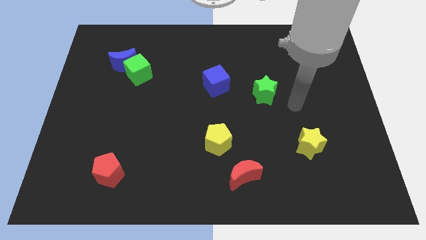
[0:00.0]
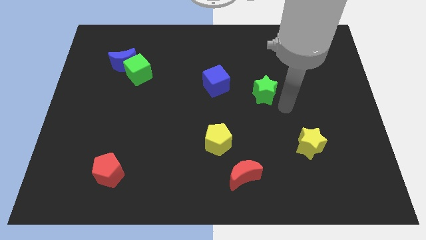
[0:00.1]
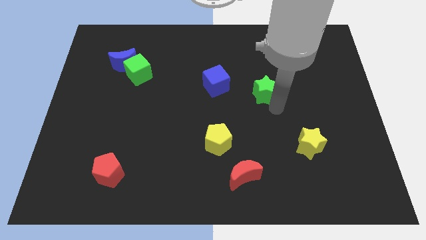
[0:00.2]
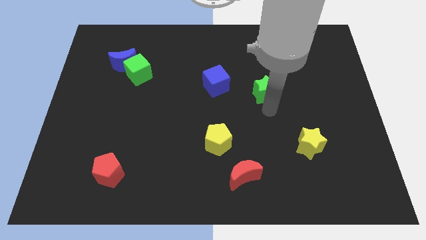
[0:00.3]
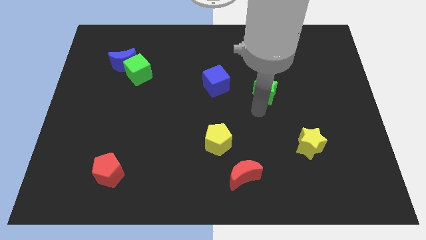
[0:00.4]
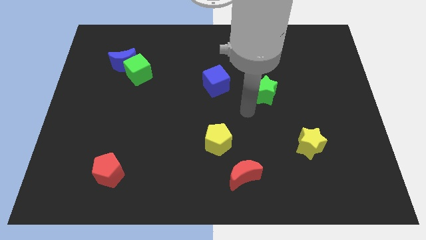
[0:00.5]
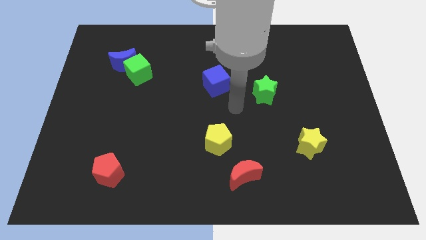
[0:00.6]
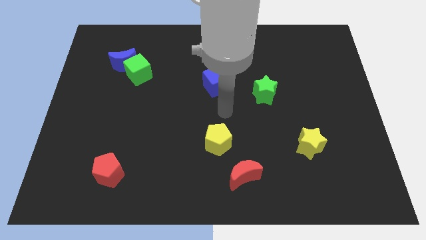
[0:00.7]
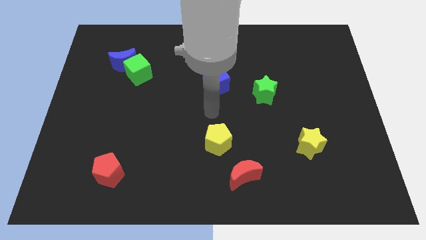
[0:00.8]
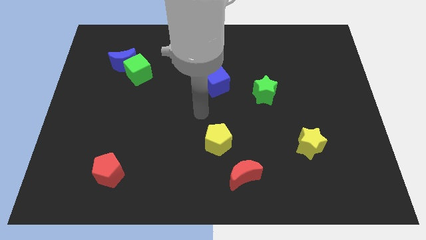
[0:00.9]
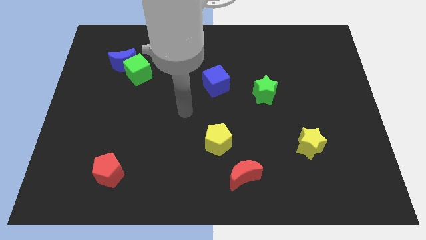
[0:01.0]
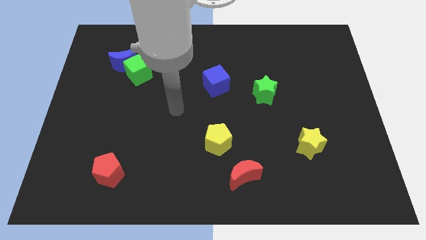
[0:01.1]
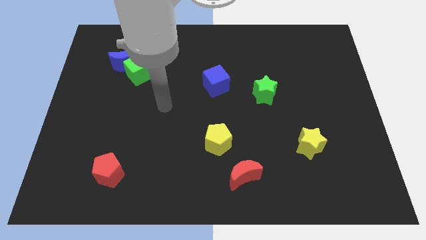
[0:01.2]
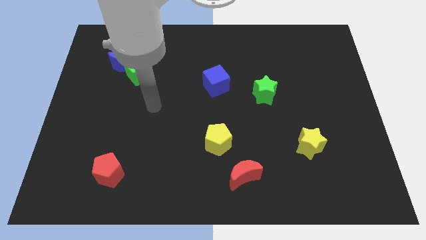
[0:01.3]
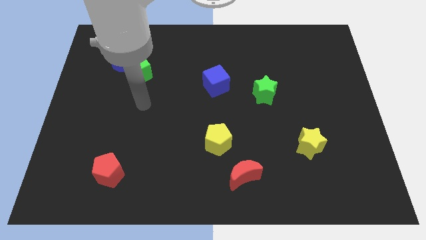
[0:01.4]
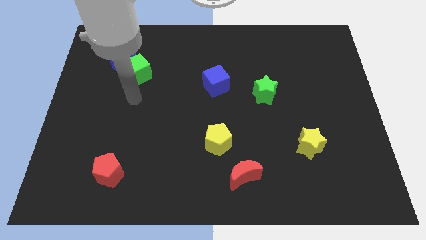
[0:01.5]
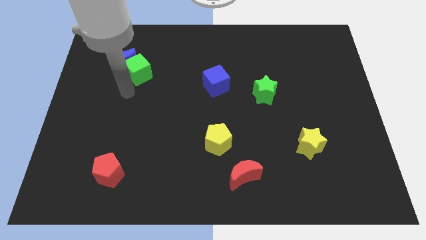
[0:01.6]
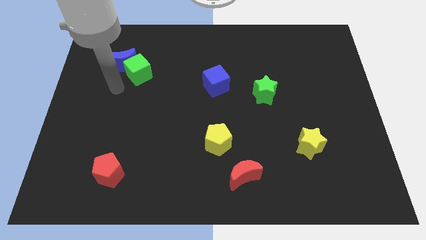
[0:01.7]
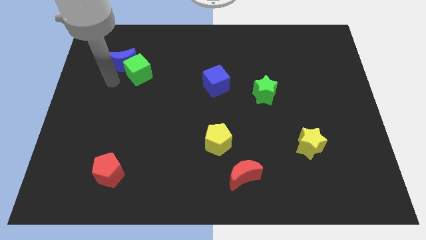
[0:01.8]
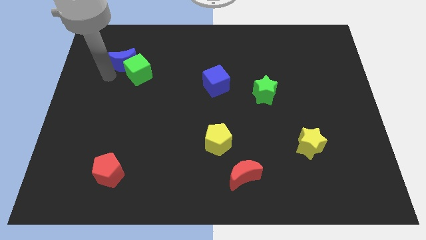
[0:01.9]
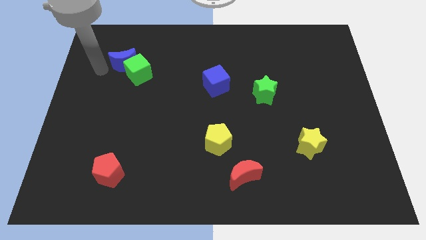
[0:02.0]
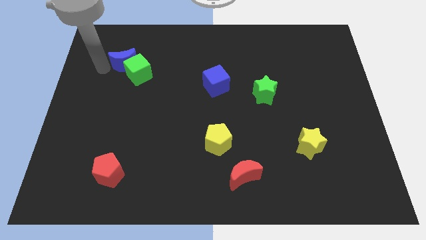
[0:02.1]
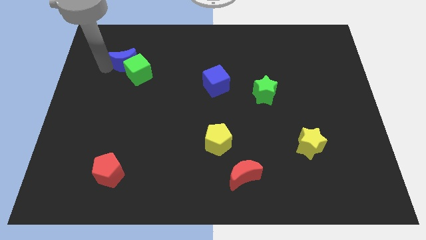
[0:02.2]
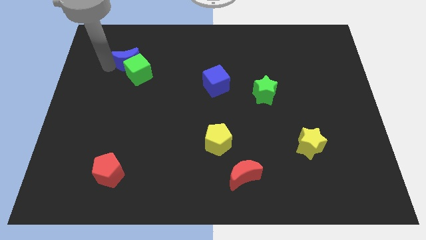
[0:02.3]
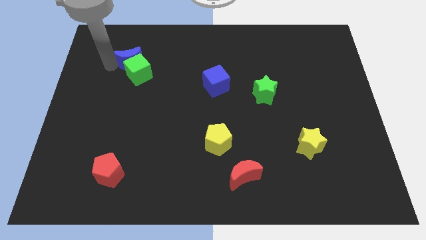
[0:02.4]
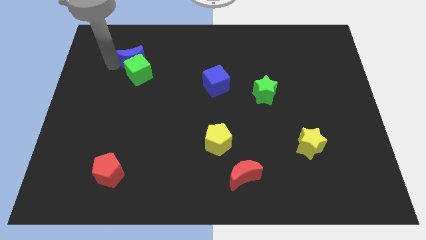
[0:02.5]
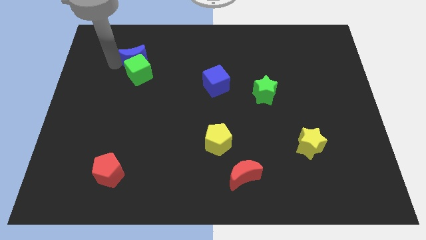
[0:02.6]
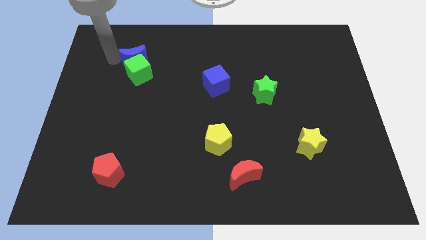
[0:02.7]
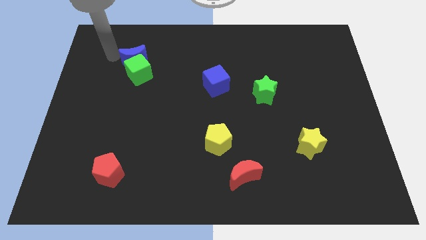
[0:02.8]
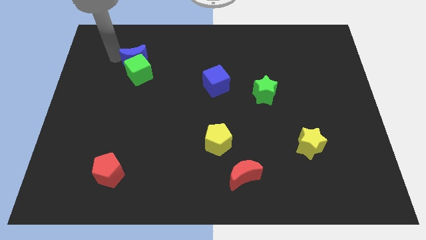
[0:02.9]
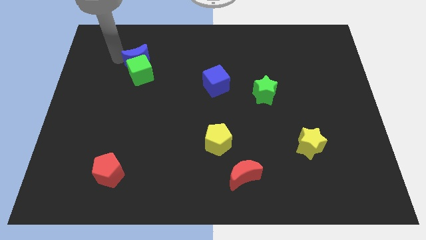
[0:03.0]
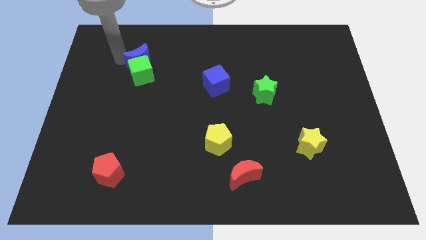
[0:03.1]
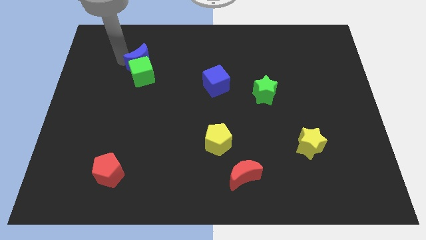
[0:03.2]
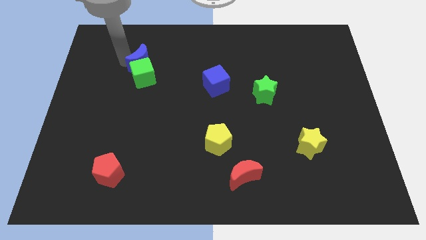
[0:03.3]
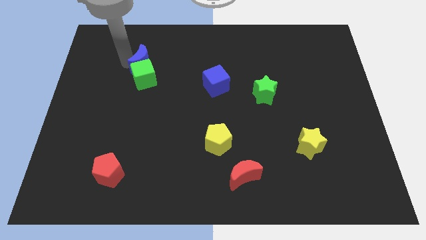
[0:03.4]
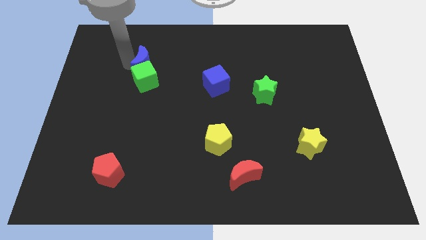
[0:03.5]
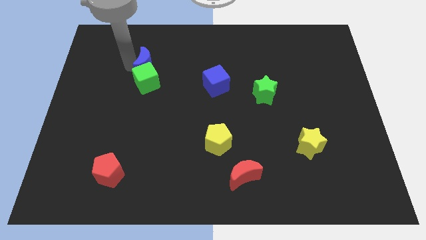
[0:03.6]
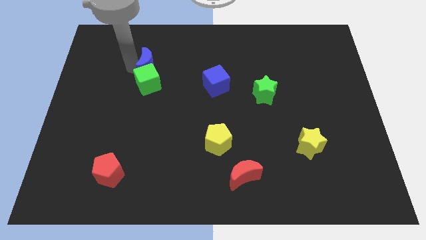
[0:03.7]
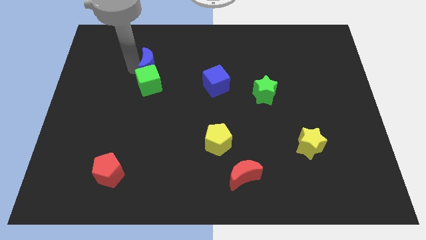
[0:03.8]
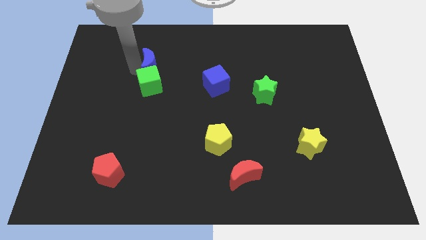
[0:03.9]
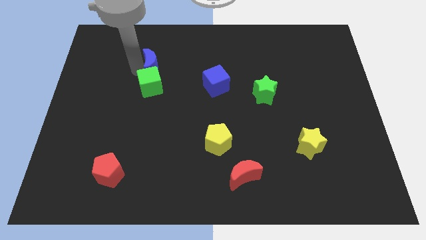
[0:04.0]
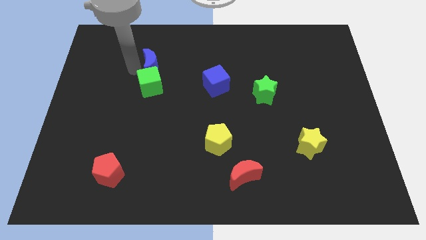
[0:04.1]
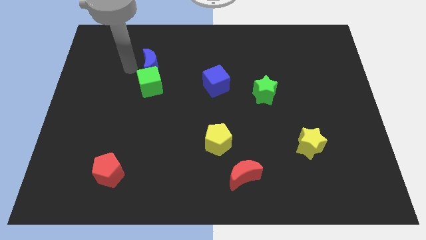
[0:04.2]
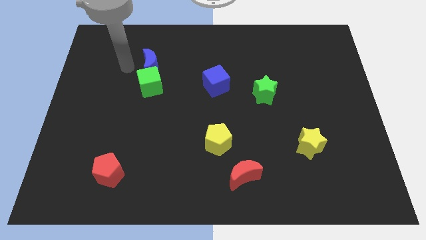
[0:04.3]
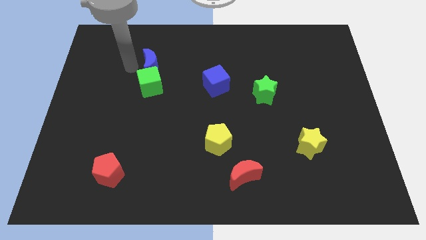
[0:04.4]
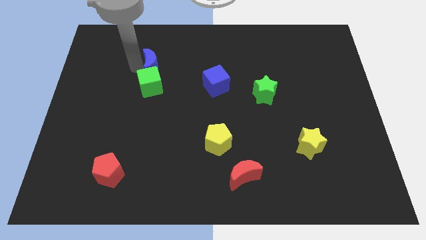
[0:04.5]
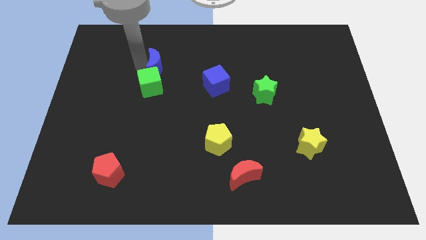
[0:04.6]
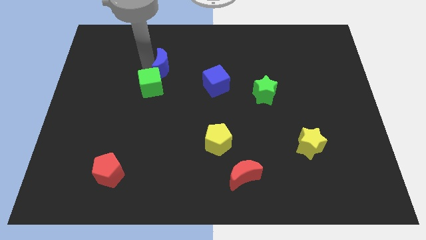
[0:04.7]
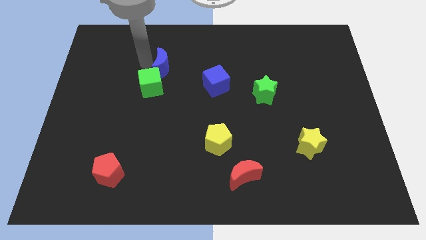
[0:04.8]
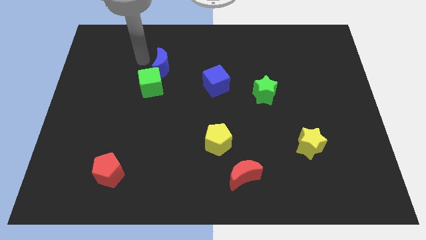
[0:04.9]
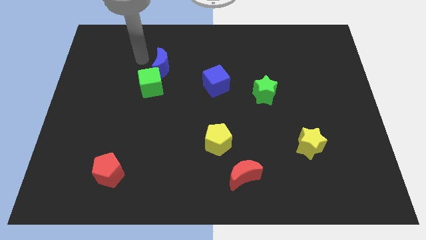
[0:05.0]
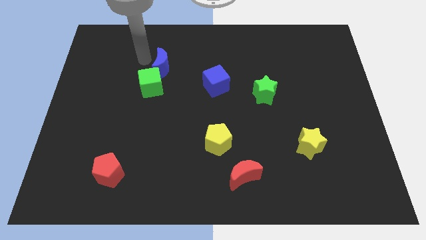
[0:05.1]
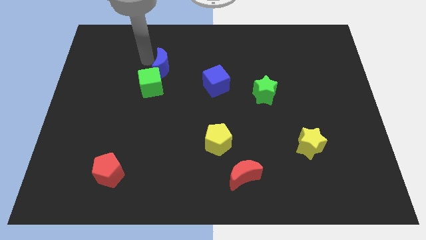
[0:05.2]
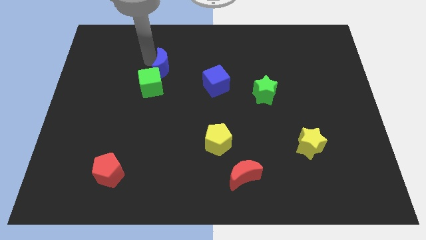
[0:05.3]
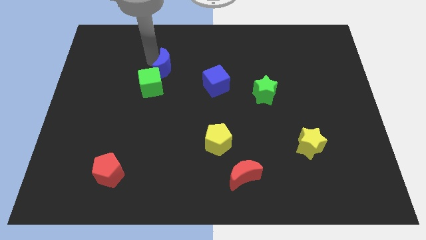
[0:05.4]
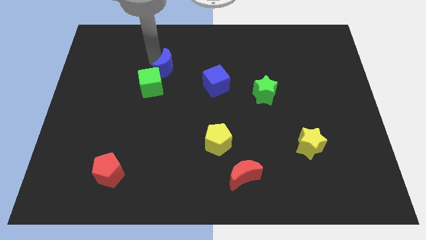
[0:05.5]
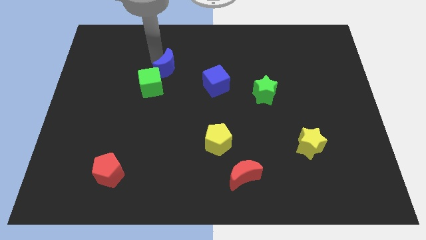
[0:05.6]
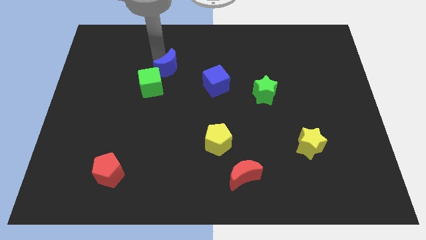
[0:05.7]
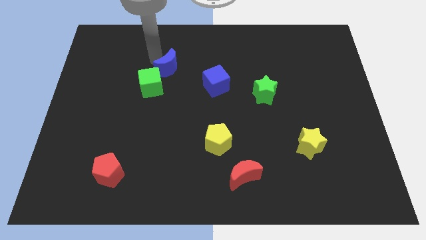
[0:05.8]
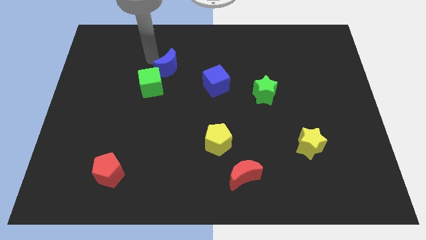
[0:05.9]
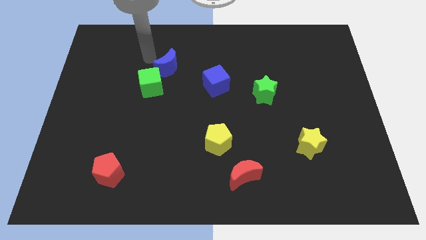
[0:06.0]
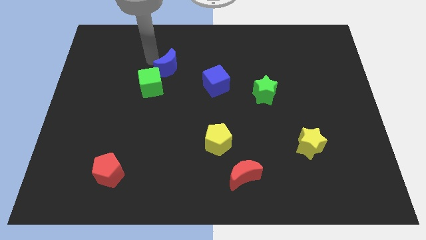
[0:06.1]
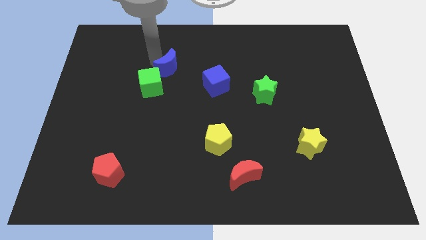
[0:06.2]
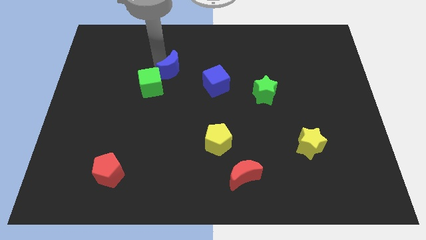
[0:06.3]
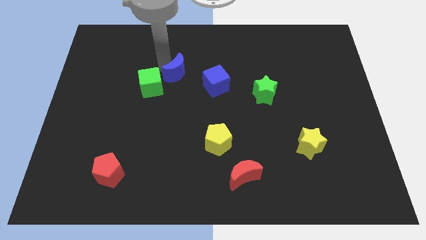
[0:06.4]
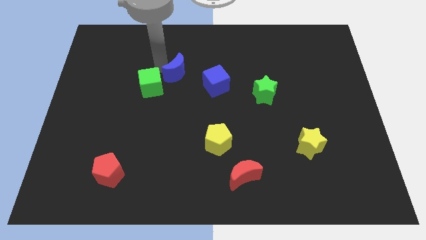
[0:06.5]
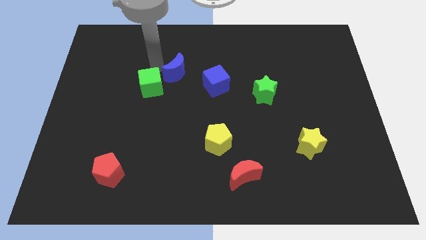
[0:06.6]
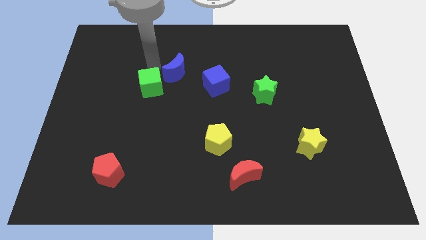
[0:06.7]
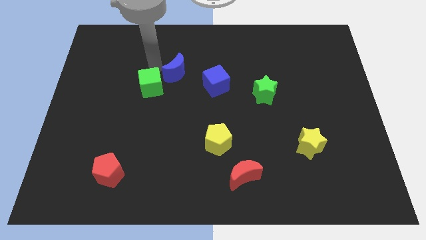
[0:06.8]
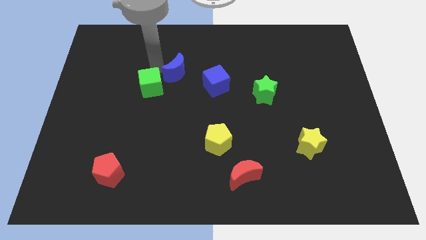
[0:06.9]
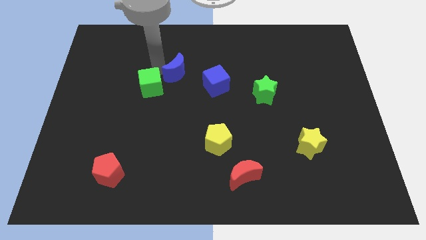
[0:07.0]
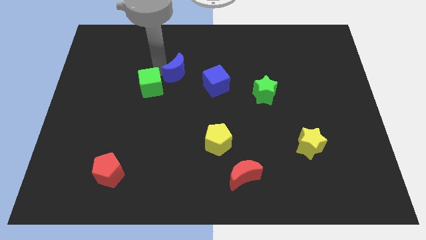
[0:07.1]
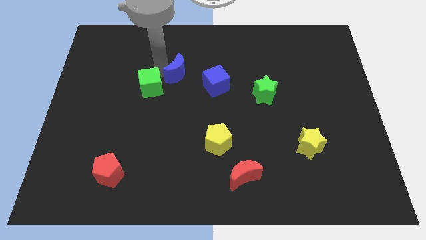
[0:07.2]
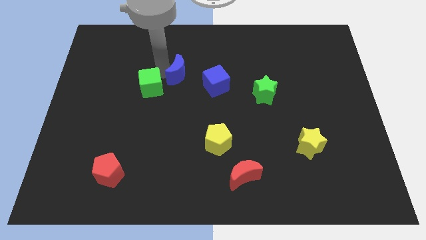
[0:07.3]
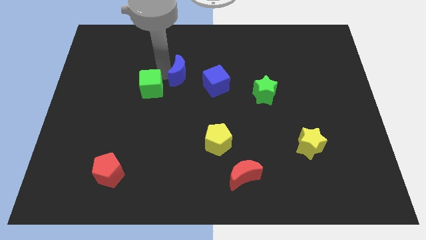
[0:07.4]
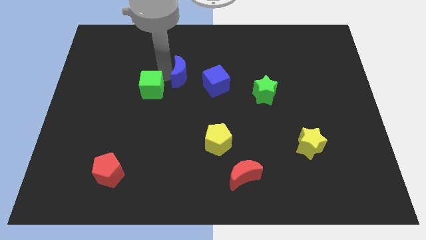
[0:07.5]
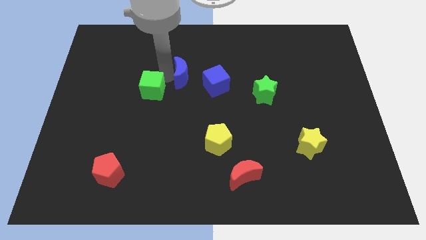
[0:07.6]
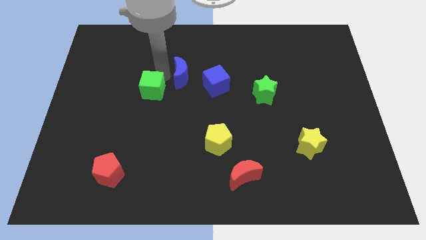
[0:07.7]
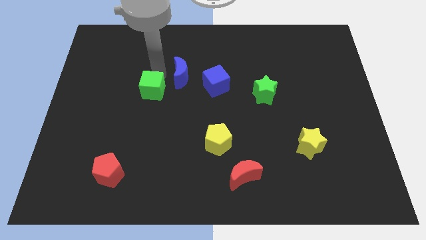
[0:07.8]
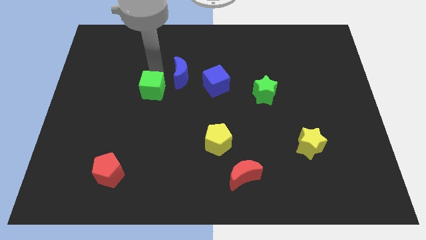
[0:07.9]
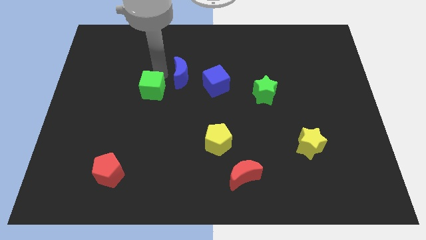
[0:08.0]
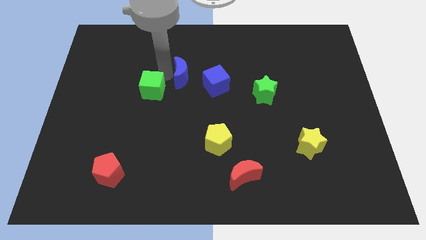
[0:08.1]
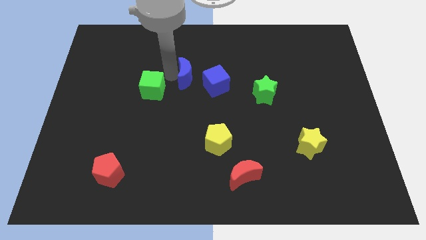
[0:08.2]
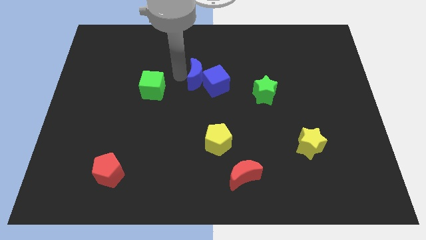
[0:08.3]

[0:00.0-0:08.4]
move the blue moon towards the blue cube
